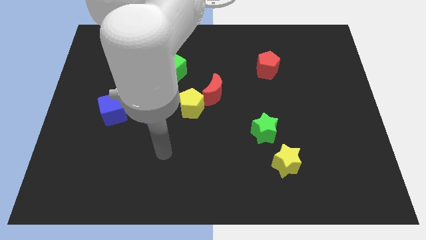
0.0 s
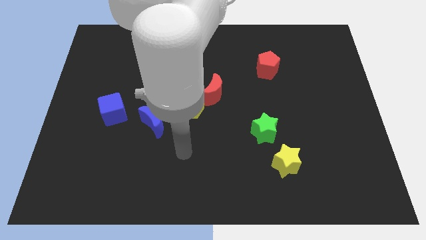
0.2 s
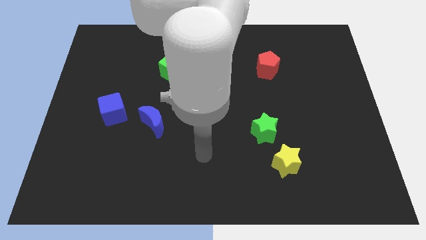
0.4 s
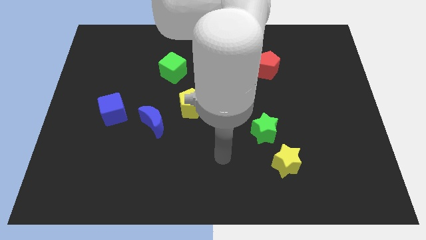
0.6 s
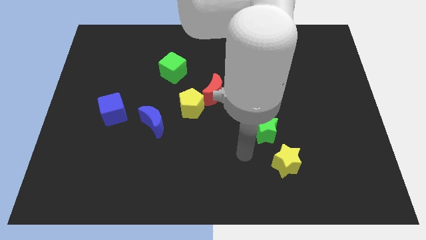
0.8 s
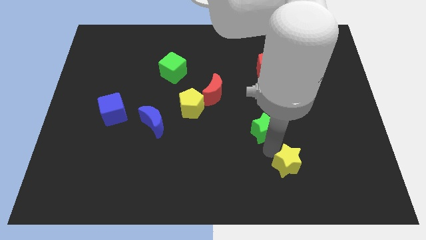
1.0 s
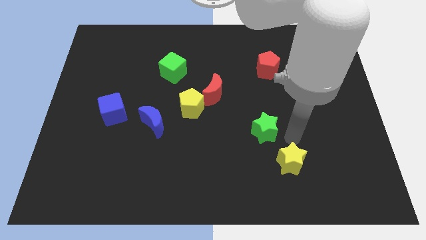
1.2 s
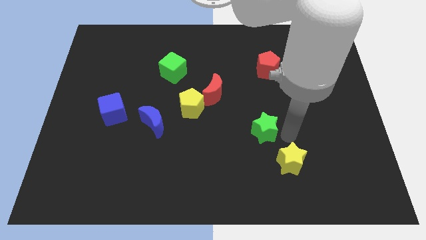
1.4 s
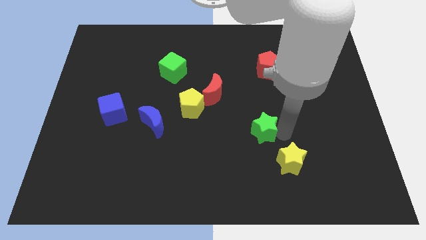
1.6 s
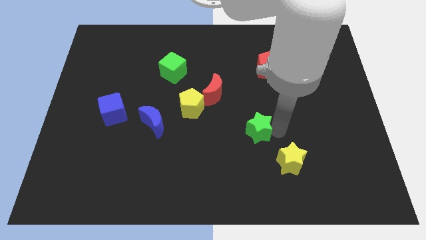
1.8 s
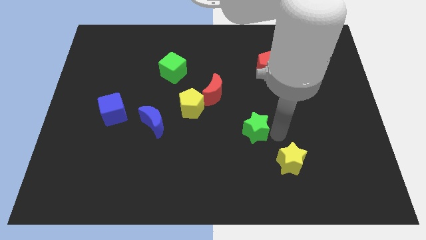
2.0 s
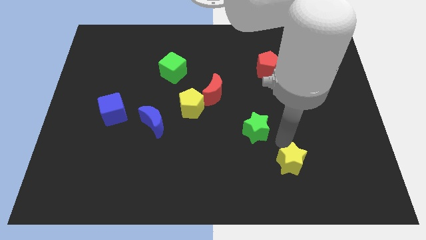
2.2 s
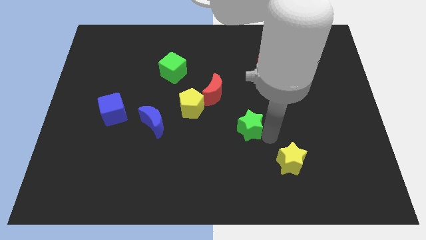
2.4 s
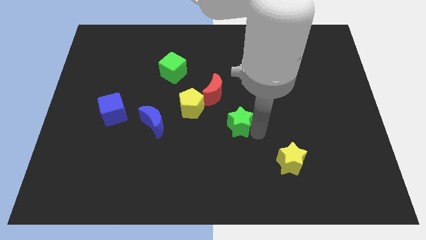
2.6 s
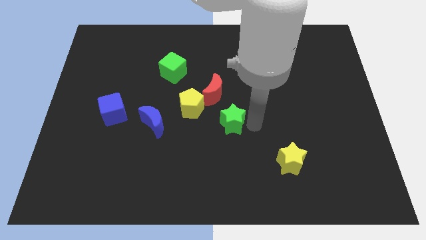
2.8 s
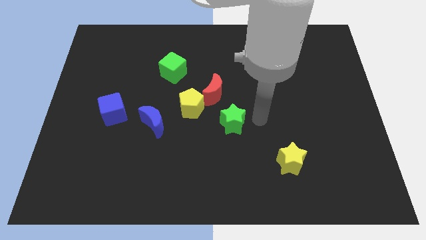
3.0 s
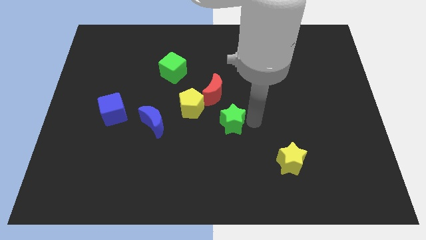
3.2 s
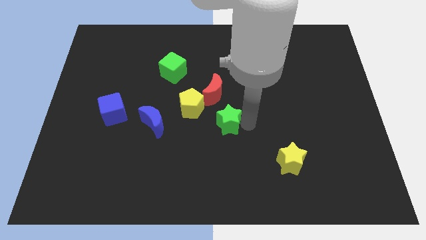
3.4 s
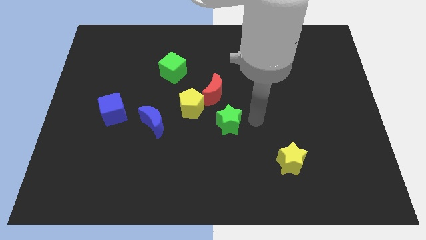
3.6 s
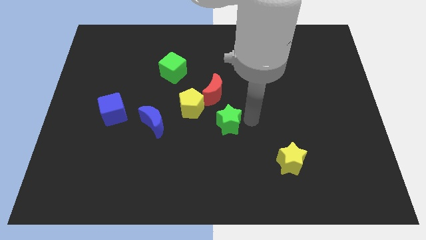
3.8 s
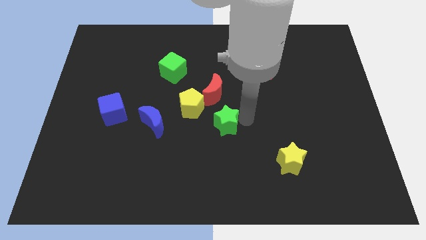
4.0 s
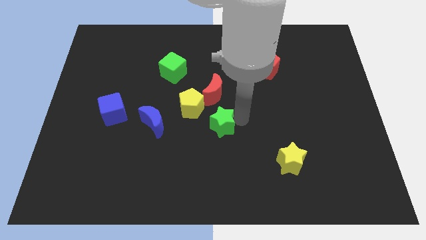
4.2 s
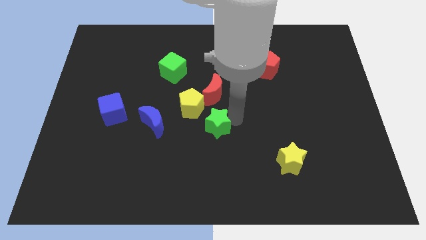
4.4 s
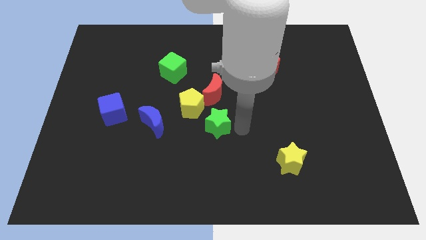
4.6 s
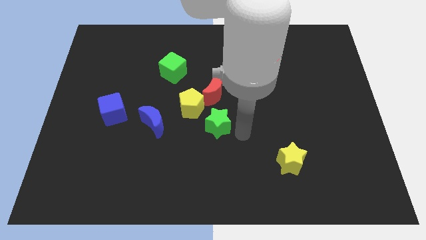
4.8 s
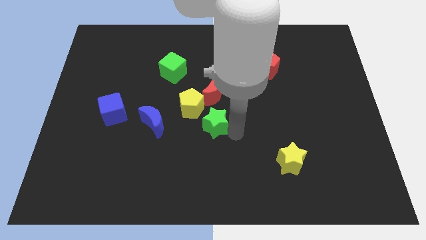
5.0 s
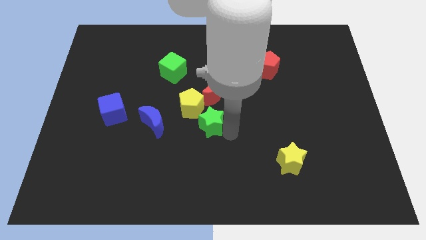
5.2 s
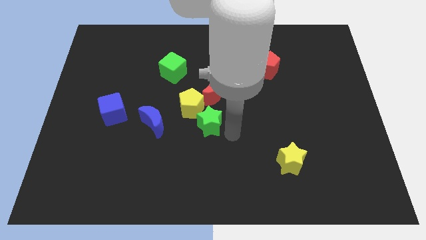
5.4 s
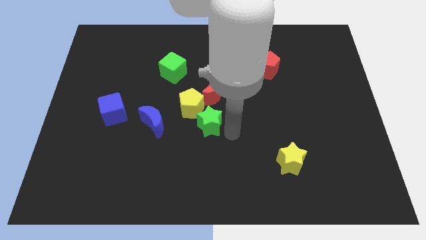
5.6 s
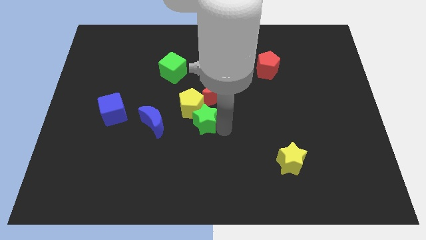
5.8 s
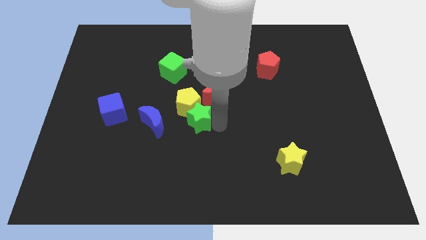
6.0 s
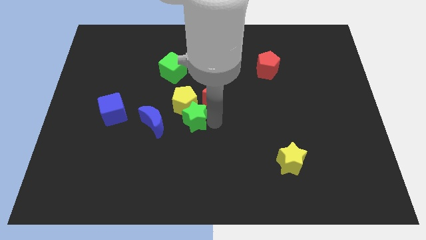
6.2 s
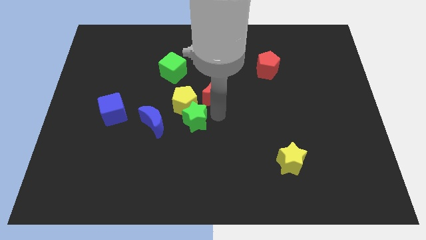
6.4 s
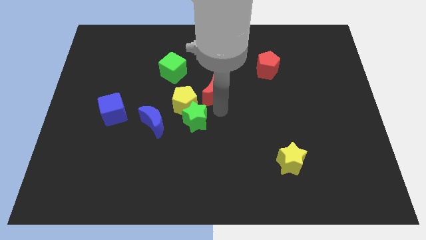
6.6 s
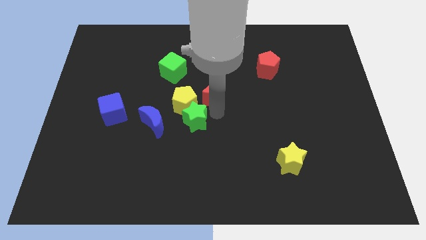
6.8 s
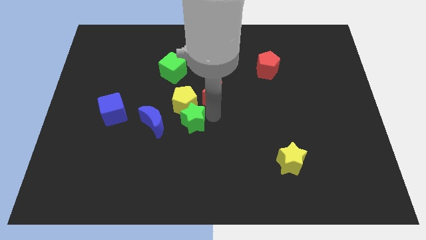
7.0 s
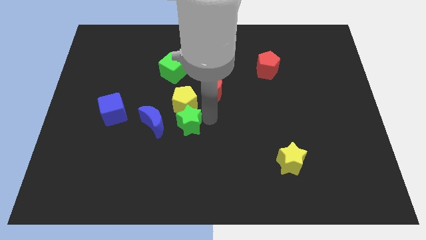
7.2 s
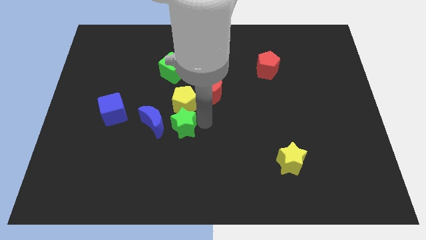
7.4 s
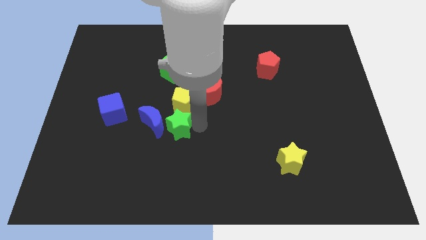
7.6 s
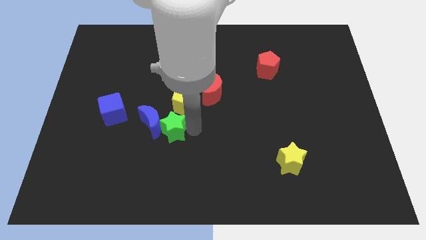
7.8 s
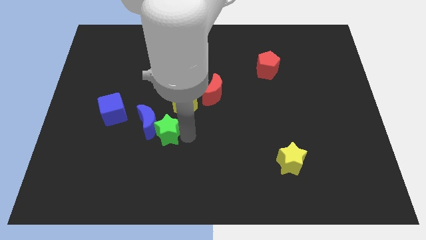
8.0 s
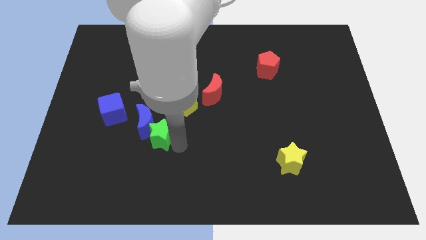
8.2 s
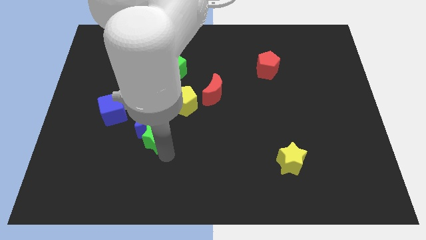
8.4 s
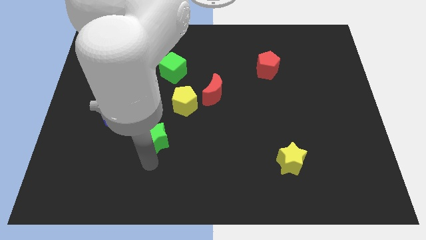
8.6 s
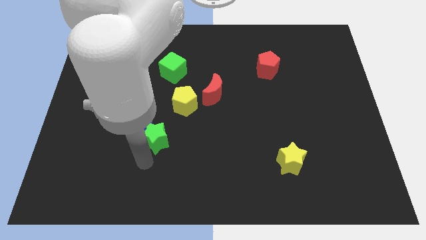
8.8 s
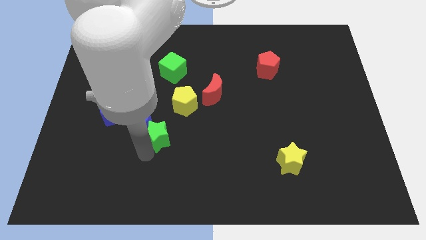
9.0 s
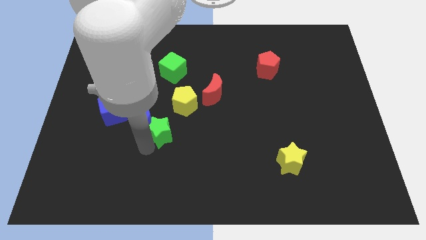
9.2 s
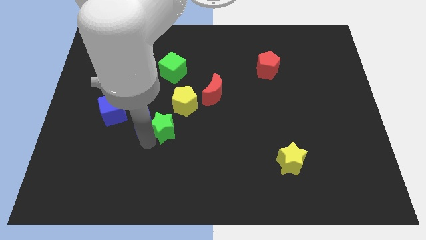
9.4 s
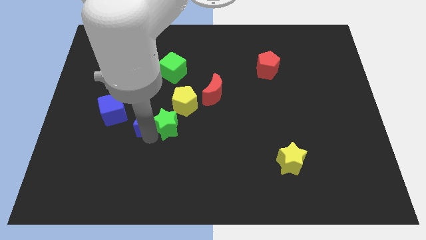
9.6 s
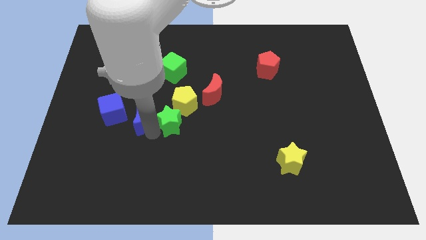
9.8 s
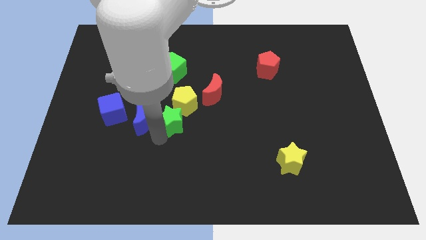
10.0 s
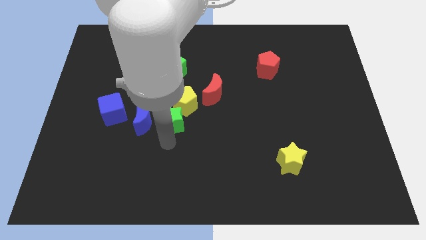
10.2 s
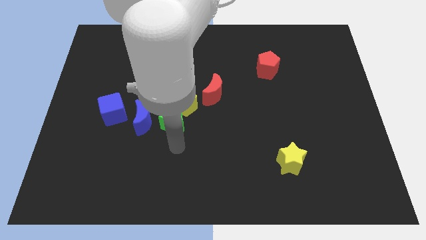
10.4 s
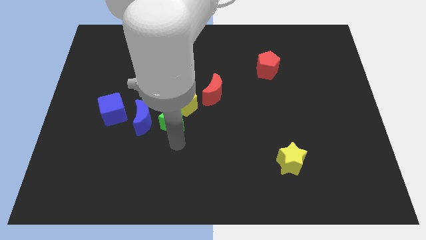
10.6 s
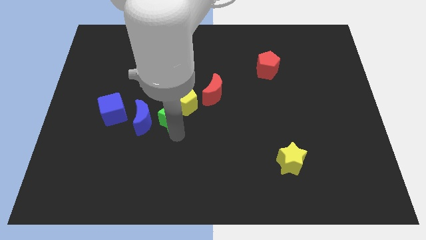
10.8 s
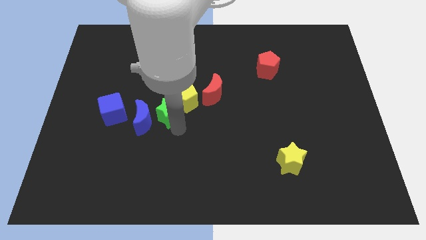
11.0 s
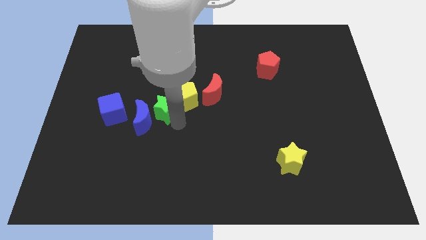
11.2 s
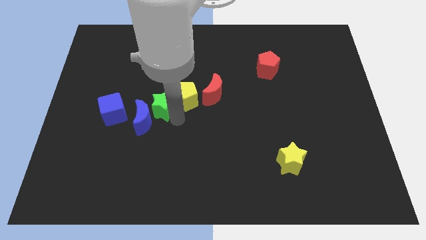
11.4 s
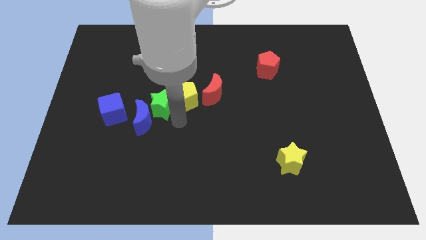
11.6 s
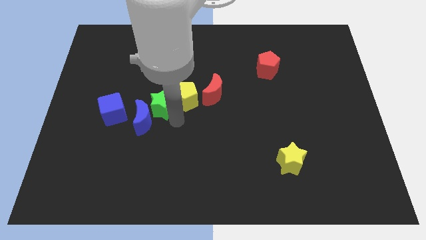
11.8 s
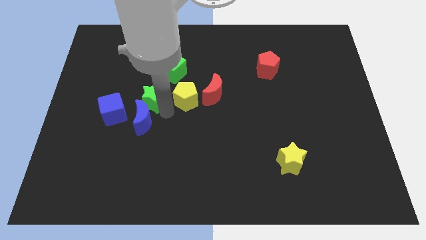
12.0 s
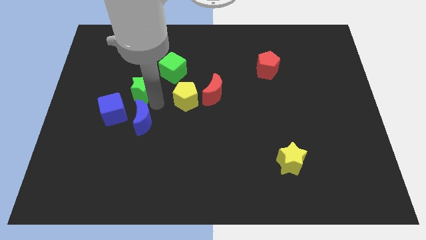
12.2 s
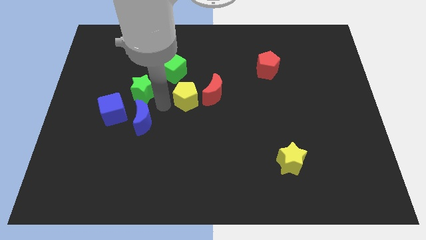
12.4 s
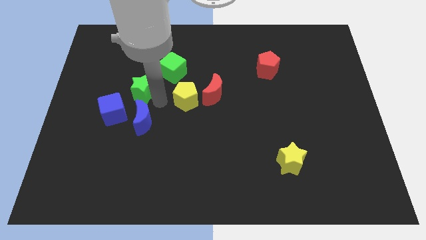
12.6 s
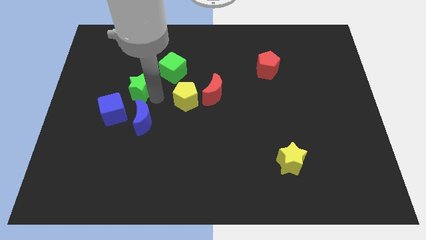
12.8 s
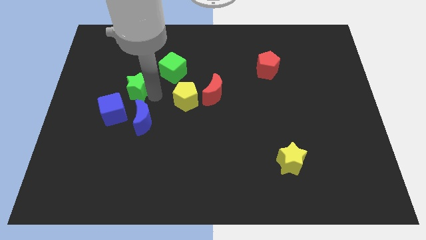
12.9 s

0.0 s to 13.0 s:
put the green star above the blue cube
